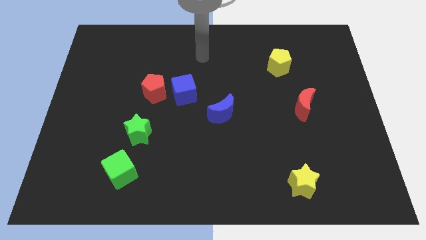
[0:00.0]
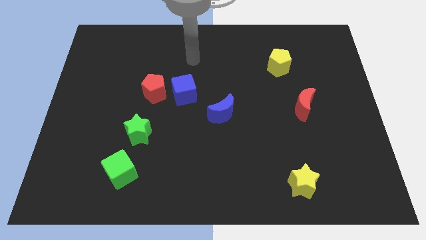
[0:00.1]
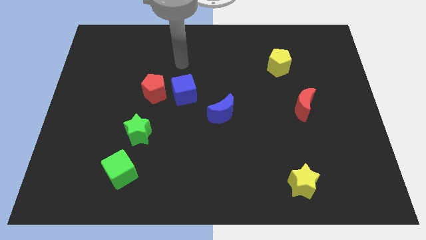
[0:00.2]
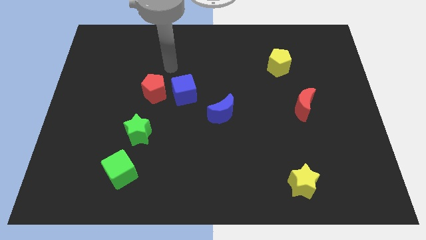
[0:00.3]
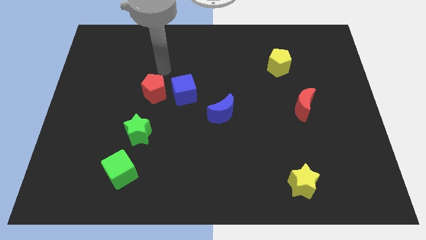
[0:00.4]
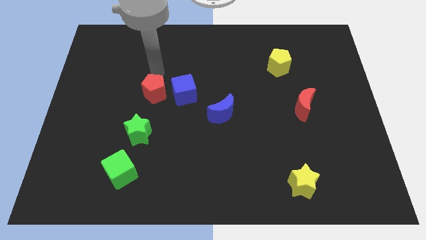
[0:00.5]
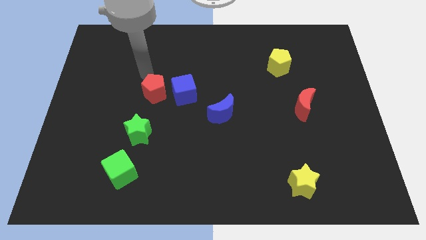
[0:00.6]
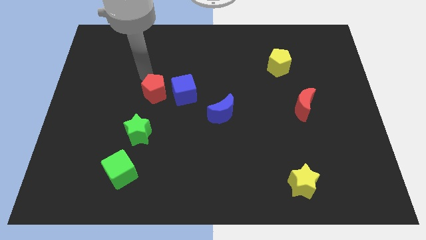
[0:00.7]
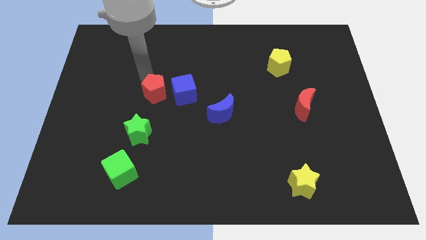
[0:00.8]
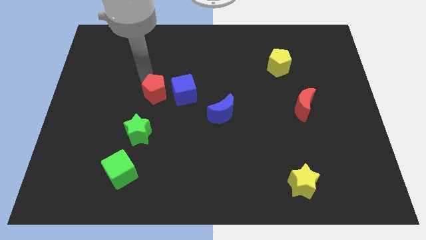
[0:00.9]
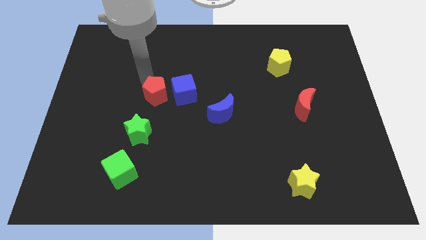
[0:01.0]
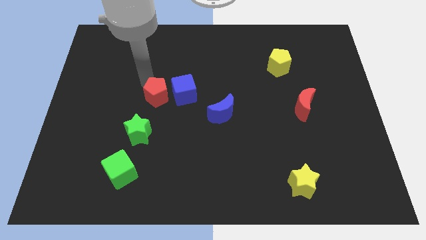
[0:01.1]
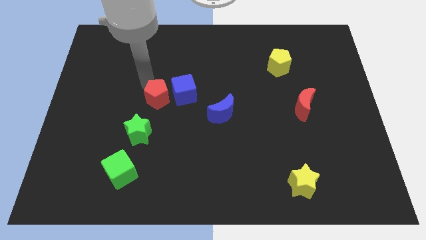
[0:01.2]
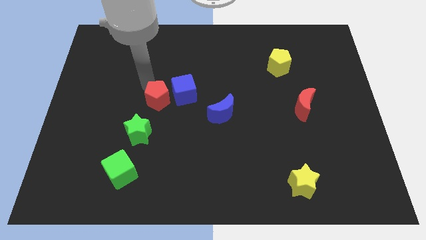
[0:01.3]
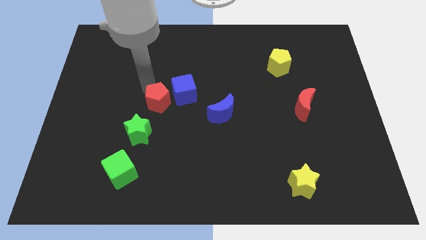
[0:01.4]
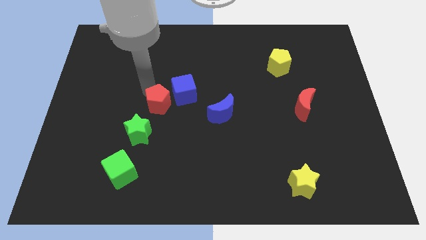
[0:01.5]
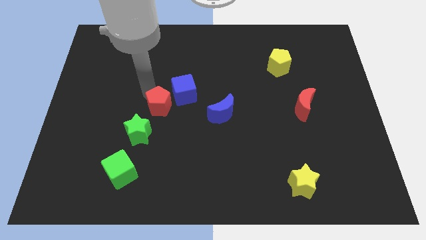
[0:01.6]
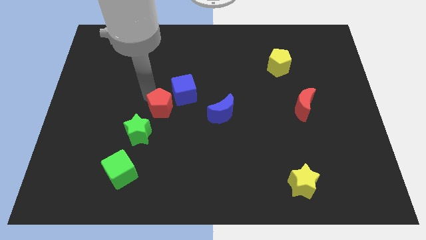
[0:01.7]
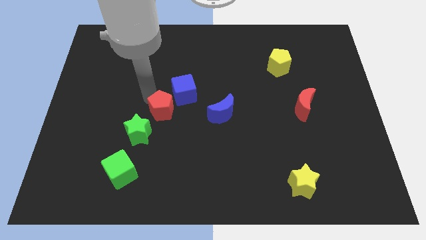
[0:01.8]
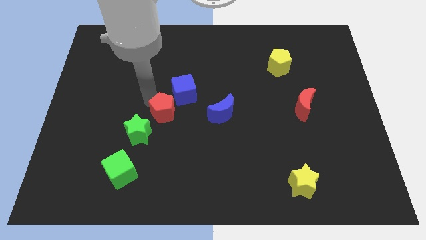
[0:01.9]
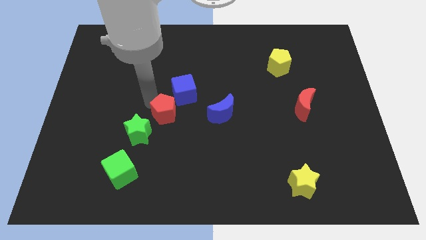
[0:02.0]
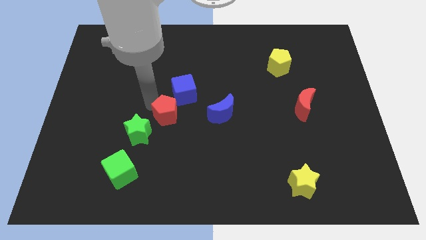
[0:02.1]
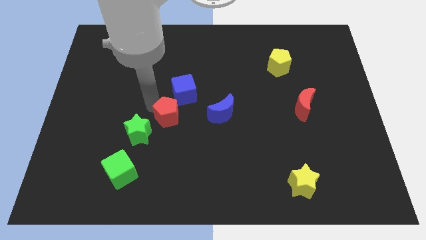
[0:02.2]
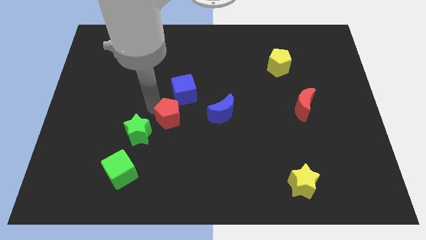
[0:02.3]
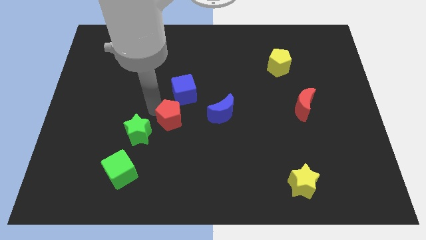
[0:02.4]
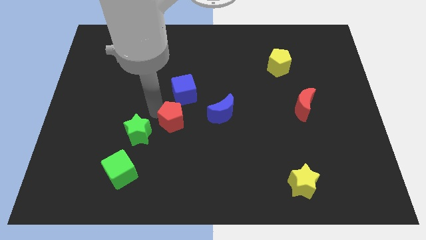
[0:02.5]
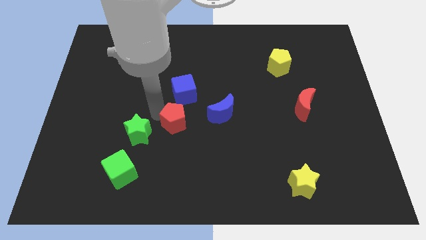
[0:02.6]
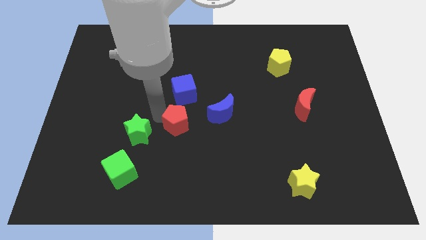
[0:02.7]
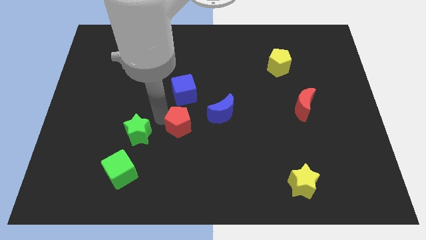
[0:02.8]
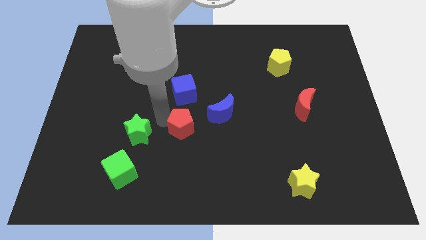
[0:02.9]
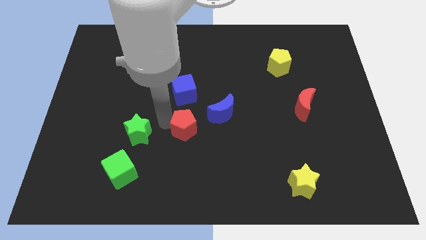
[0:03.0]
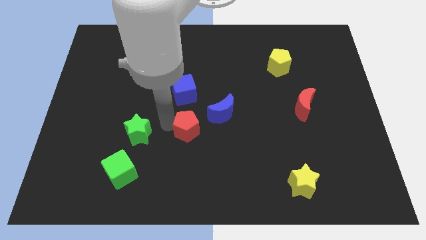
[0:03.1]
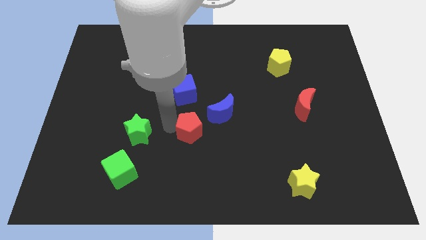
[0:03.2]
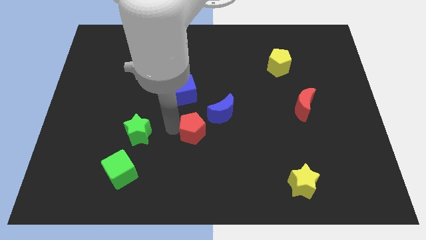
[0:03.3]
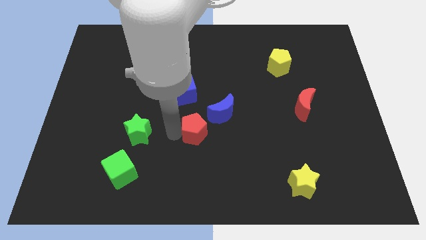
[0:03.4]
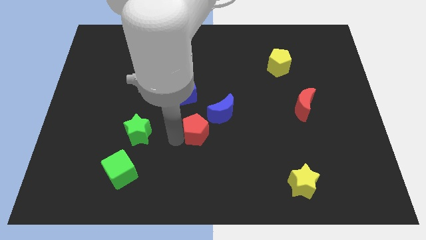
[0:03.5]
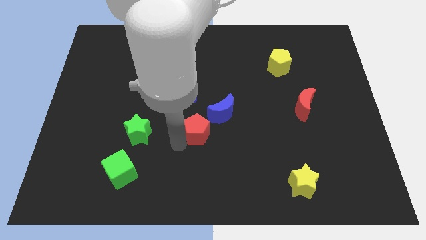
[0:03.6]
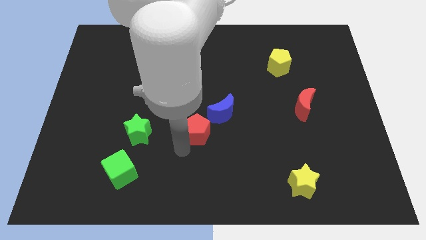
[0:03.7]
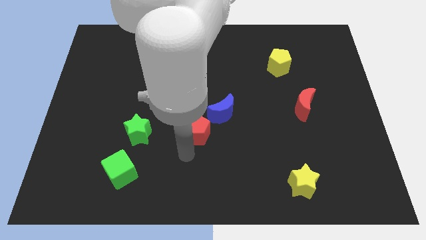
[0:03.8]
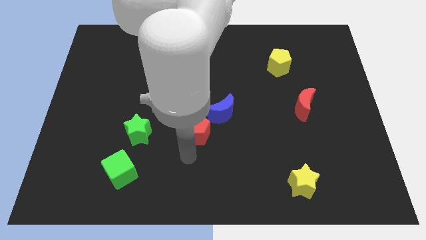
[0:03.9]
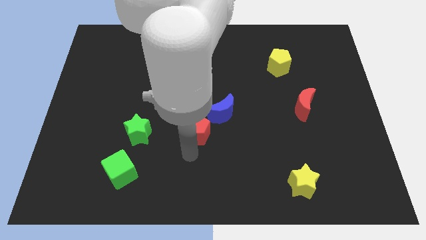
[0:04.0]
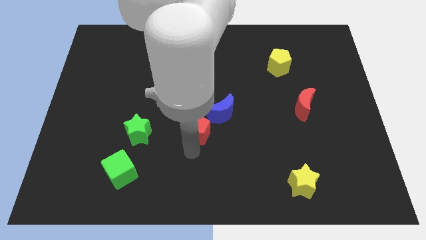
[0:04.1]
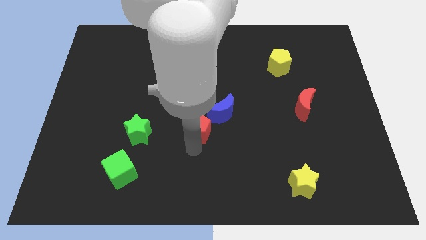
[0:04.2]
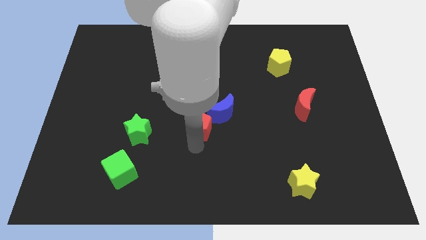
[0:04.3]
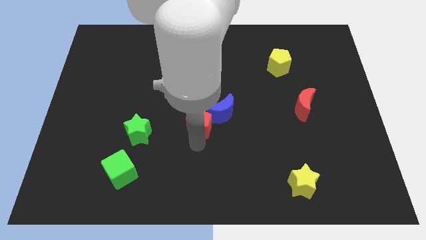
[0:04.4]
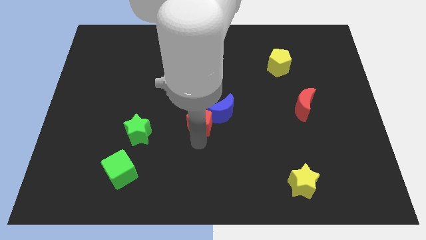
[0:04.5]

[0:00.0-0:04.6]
slide the red pentagon close to the blue moon

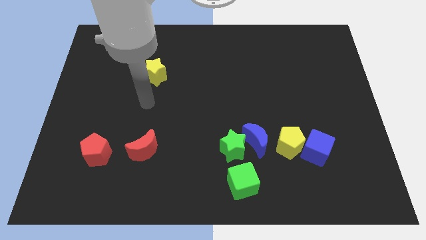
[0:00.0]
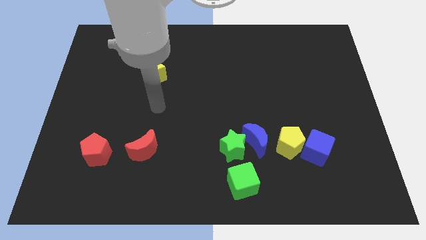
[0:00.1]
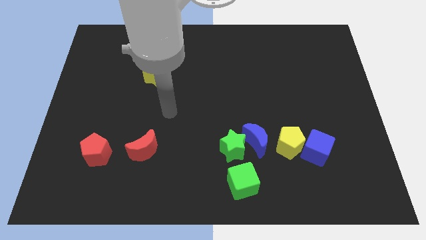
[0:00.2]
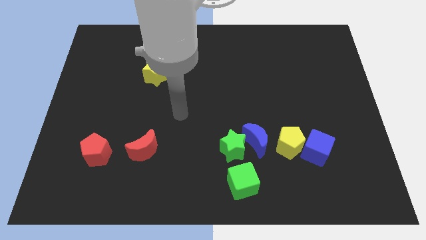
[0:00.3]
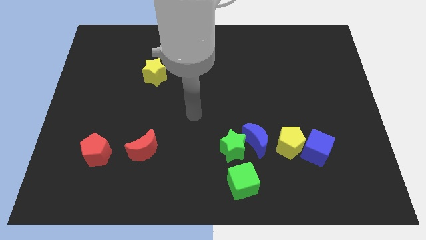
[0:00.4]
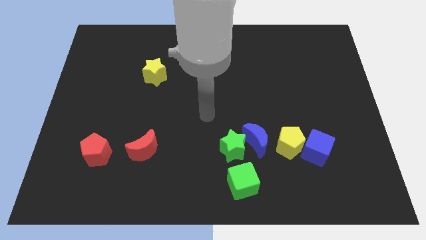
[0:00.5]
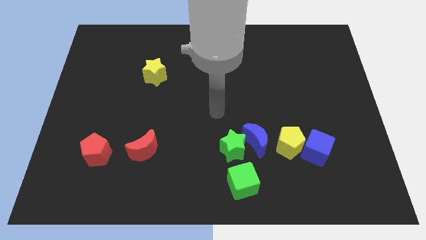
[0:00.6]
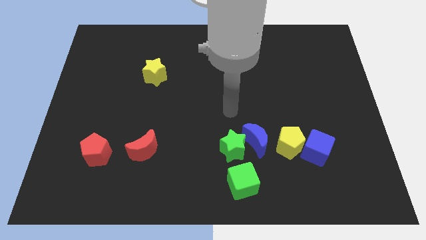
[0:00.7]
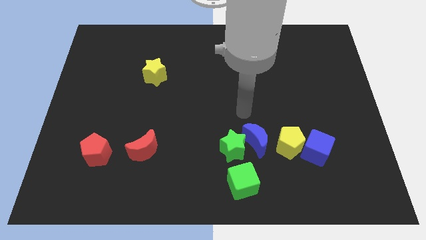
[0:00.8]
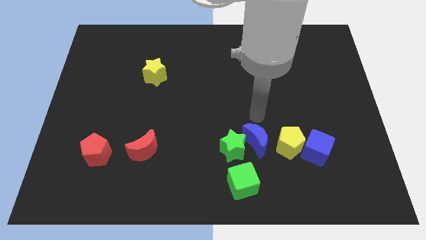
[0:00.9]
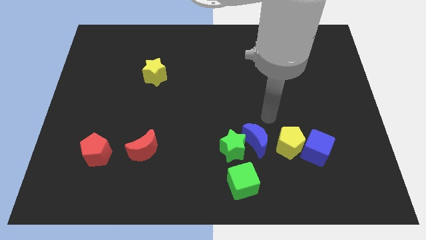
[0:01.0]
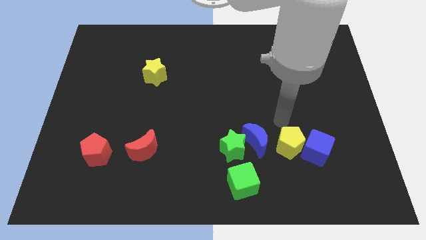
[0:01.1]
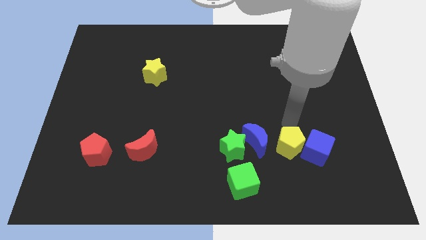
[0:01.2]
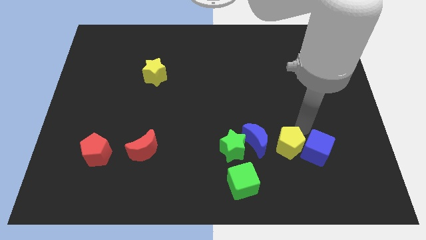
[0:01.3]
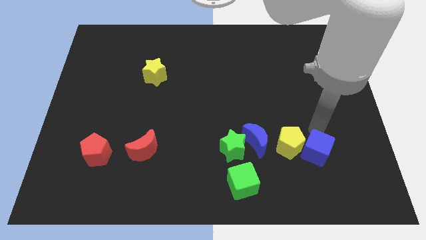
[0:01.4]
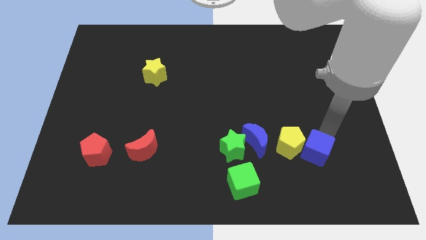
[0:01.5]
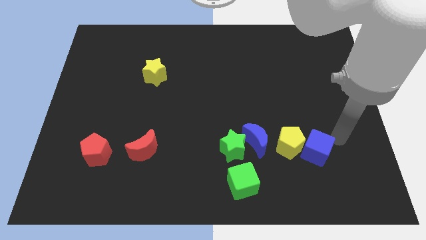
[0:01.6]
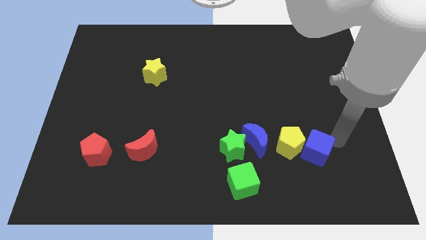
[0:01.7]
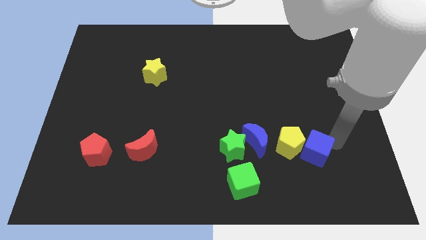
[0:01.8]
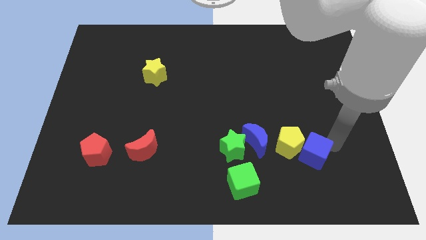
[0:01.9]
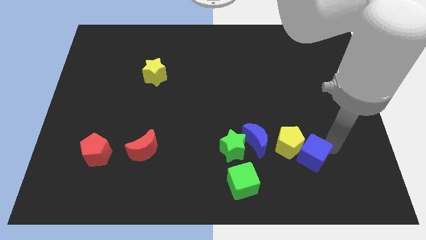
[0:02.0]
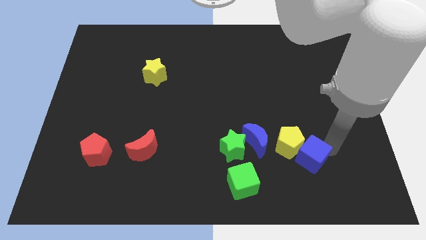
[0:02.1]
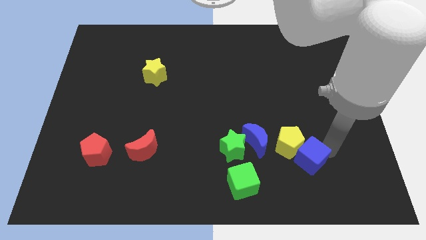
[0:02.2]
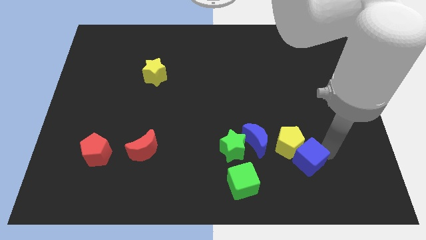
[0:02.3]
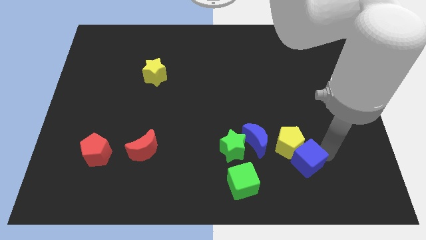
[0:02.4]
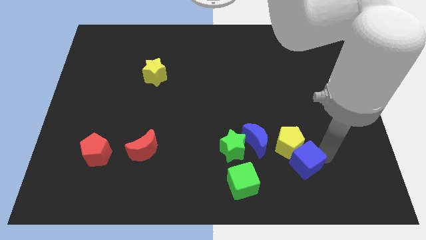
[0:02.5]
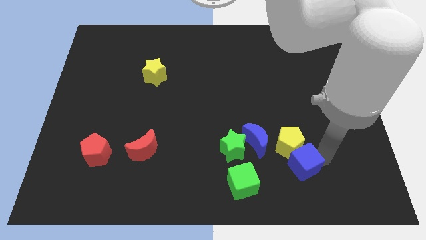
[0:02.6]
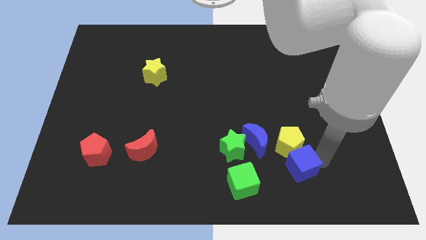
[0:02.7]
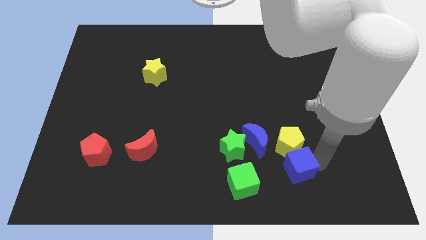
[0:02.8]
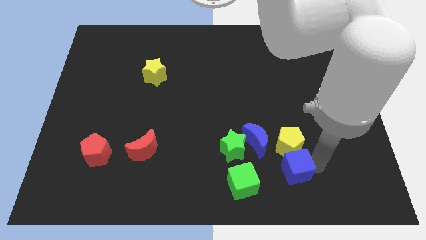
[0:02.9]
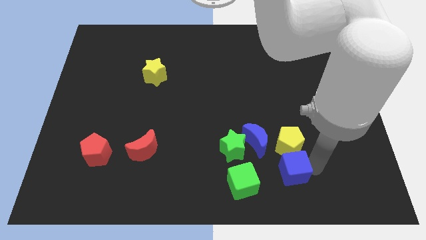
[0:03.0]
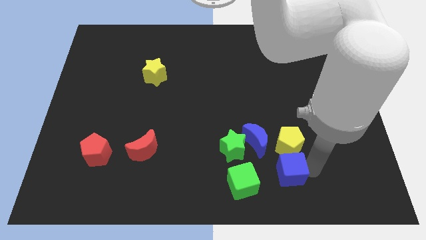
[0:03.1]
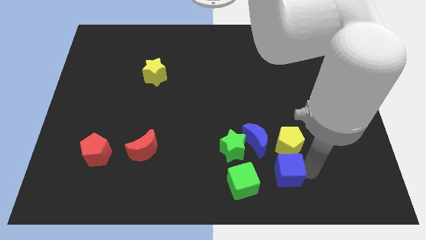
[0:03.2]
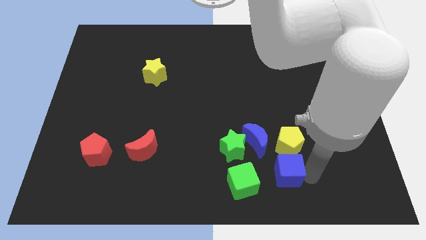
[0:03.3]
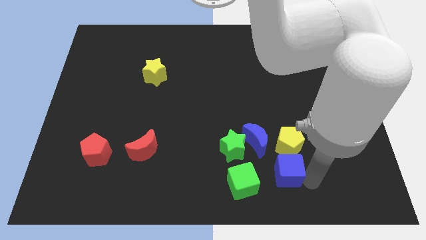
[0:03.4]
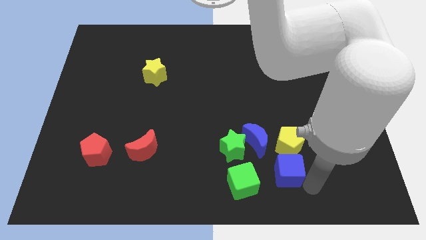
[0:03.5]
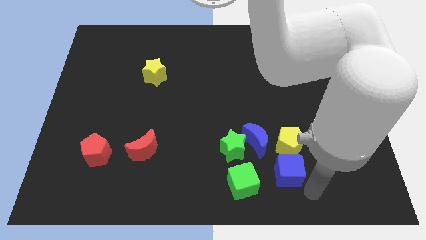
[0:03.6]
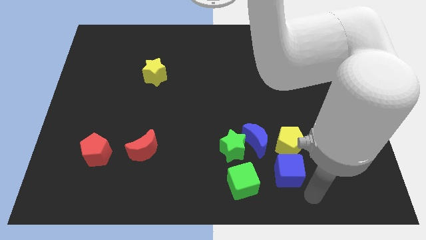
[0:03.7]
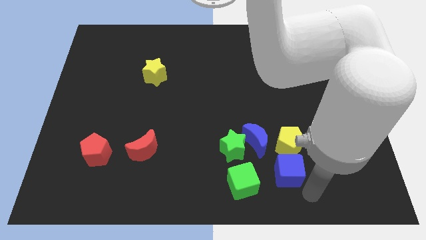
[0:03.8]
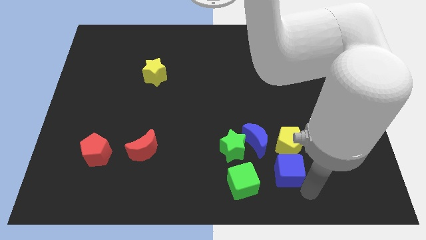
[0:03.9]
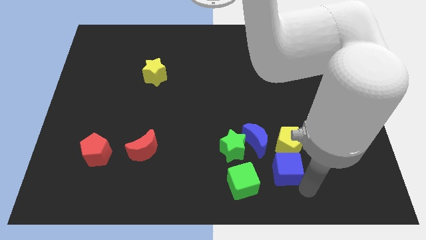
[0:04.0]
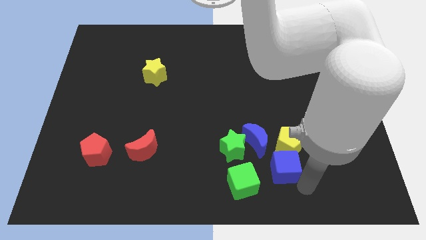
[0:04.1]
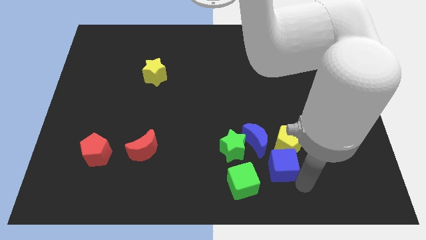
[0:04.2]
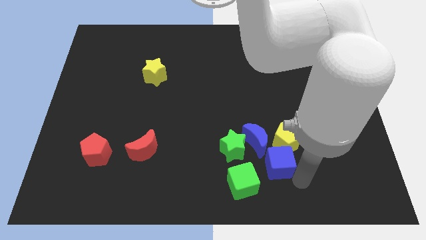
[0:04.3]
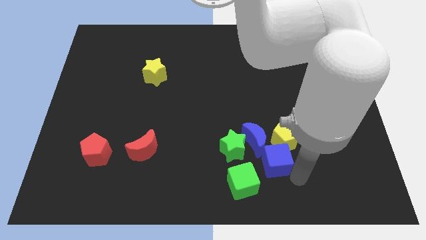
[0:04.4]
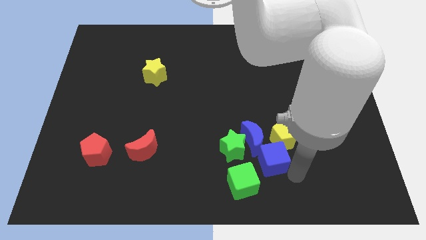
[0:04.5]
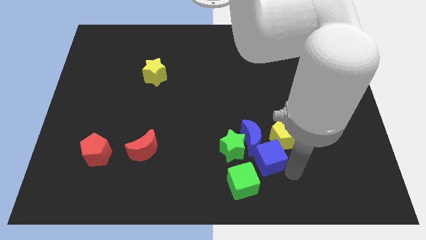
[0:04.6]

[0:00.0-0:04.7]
push the blue cube towards the blue moon
